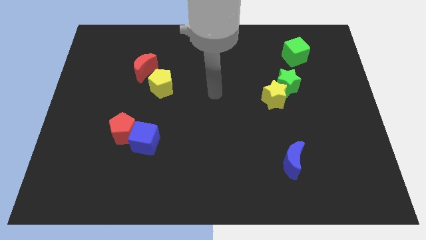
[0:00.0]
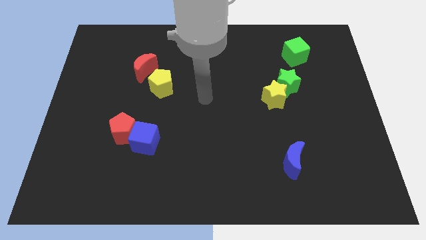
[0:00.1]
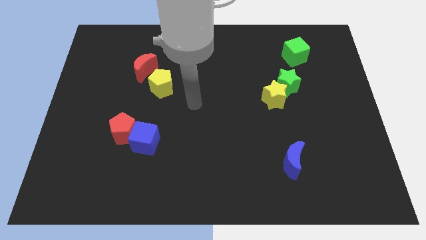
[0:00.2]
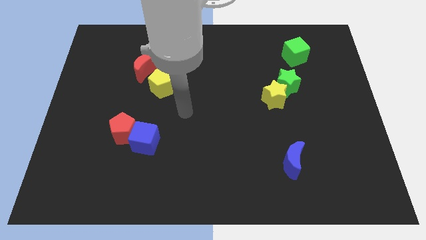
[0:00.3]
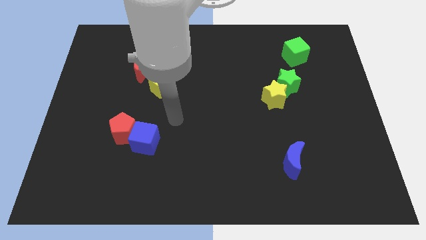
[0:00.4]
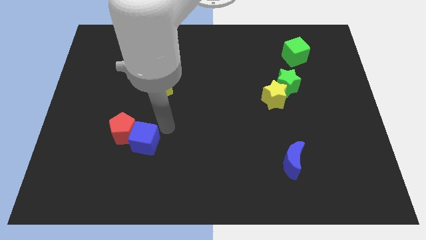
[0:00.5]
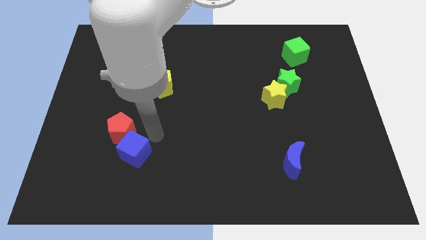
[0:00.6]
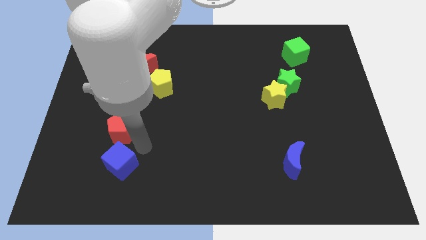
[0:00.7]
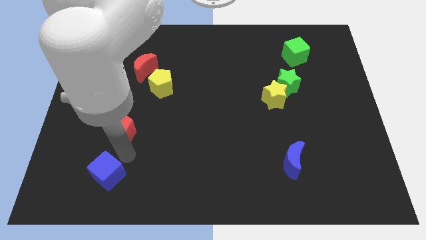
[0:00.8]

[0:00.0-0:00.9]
pull the red pentagon apart from the blue cube

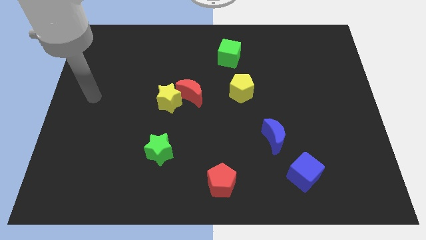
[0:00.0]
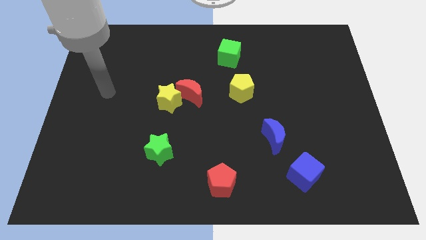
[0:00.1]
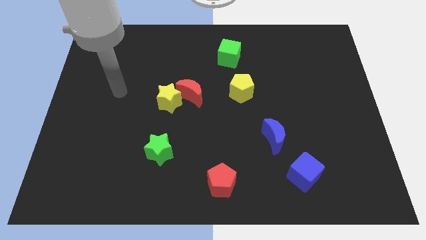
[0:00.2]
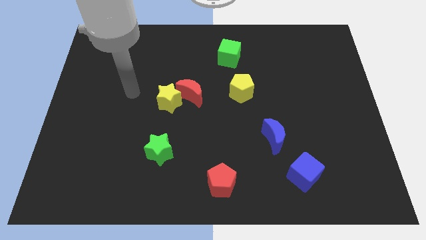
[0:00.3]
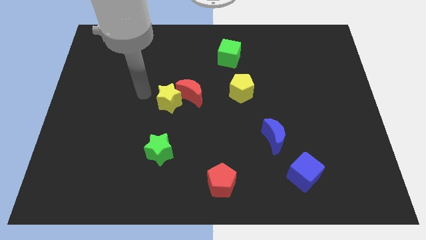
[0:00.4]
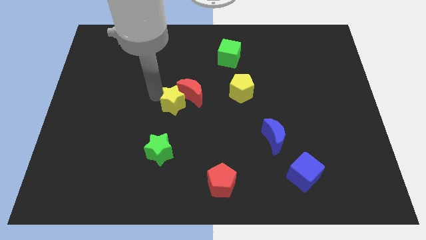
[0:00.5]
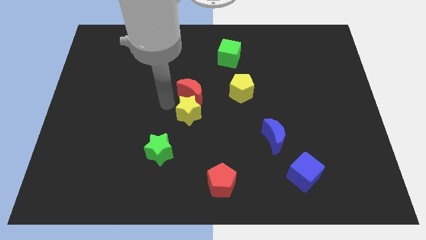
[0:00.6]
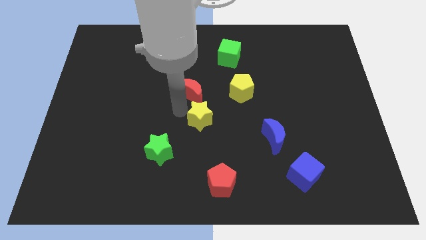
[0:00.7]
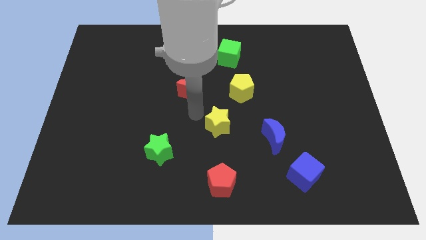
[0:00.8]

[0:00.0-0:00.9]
separate the red moon from the yellow star

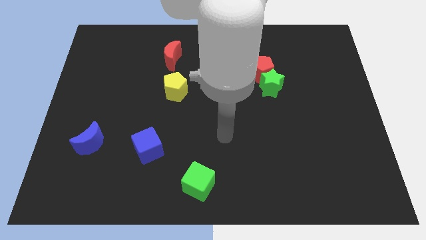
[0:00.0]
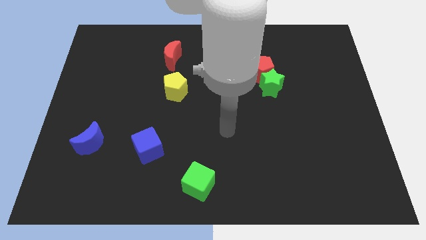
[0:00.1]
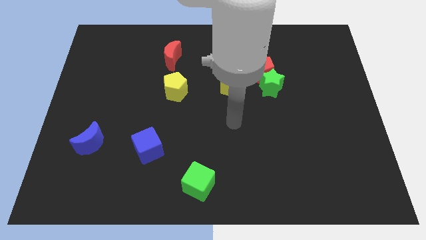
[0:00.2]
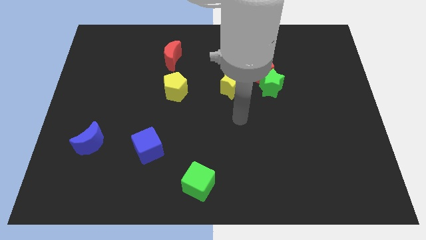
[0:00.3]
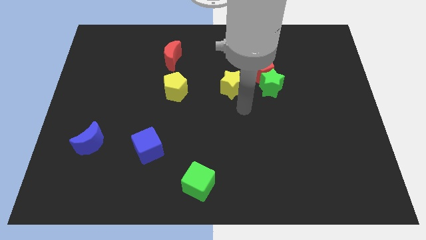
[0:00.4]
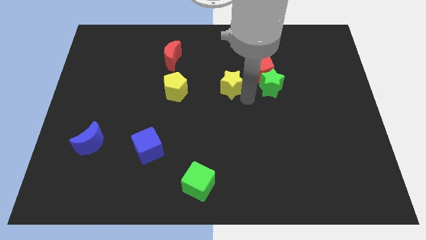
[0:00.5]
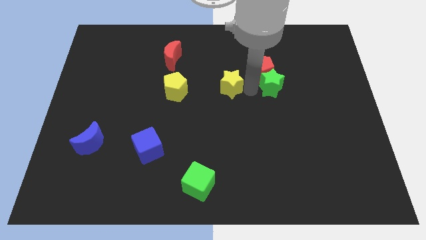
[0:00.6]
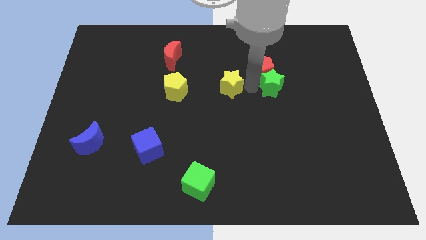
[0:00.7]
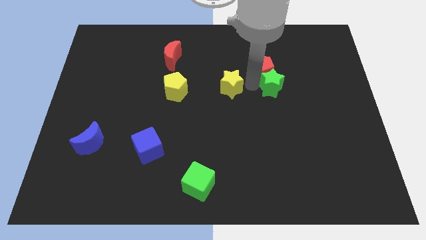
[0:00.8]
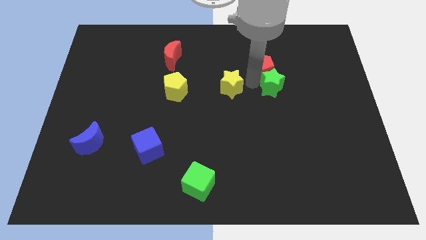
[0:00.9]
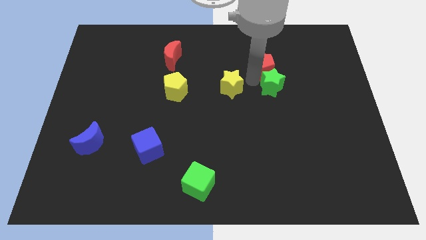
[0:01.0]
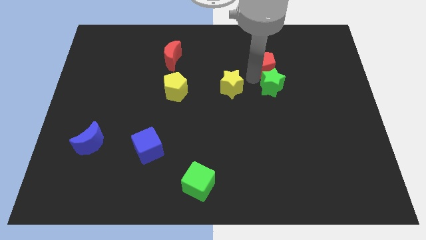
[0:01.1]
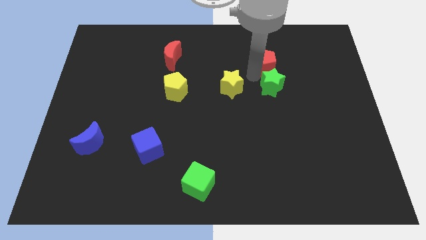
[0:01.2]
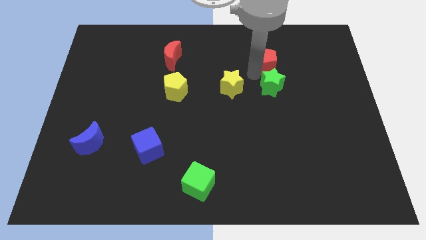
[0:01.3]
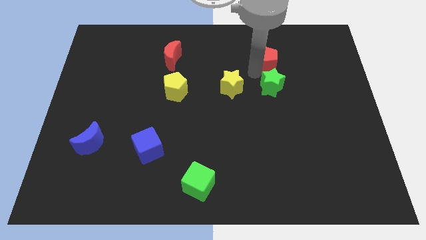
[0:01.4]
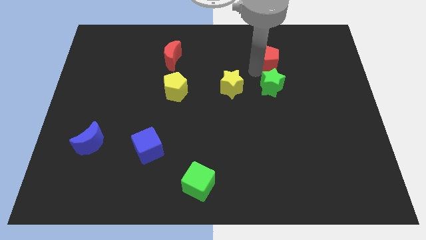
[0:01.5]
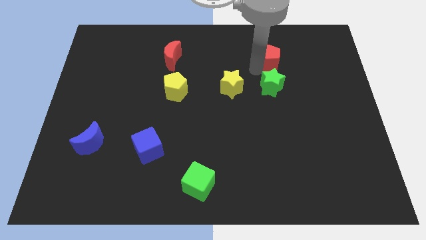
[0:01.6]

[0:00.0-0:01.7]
pull the red pentagon apart from the green star and yellow star

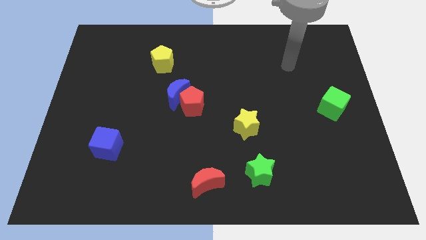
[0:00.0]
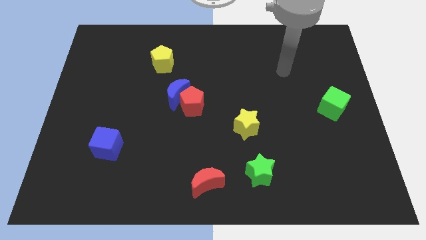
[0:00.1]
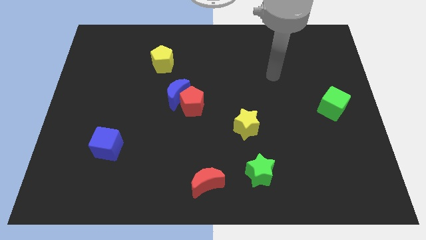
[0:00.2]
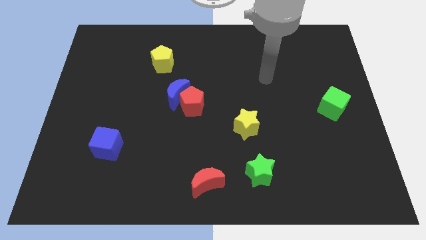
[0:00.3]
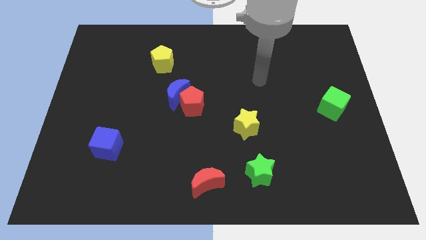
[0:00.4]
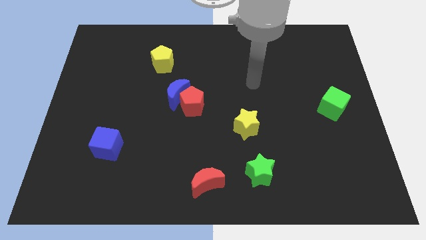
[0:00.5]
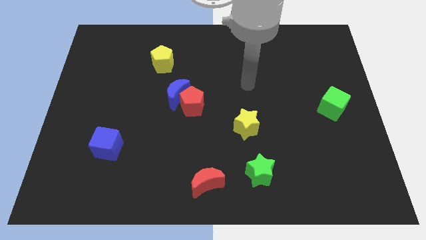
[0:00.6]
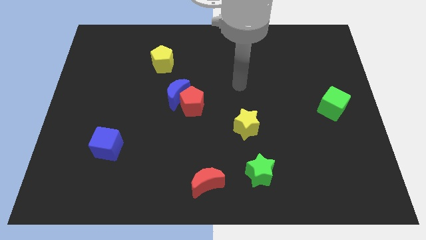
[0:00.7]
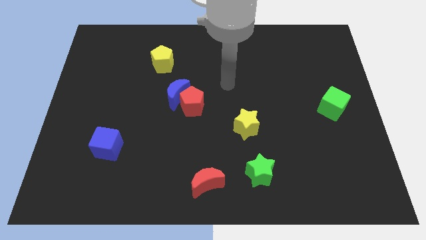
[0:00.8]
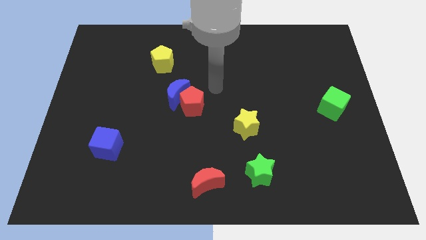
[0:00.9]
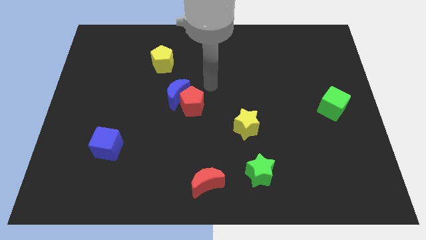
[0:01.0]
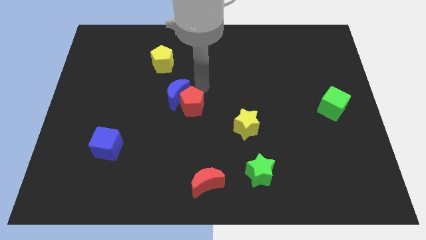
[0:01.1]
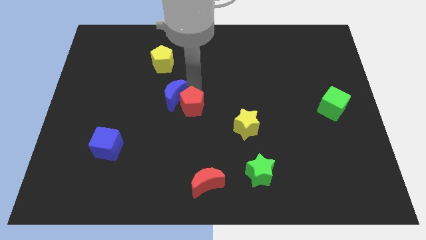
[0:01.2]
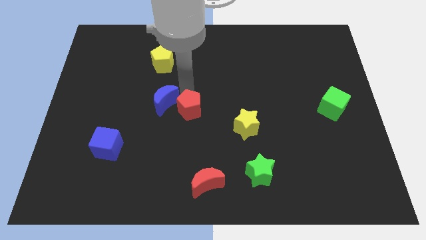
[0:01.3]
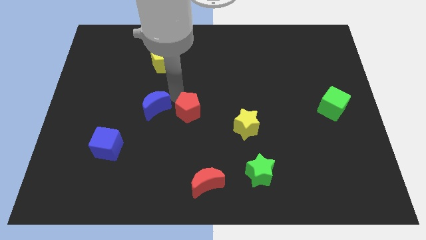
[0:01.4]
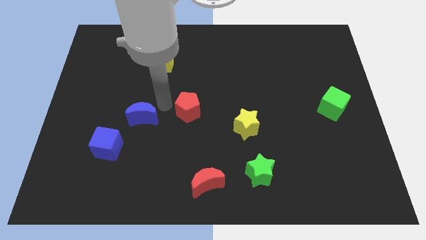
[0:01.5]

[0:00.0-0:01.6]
move the red pentagon away from the blue moon

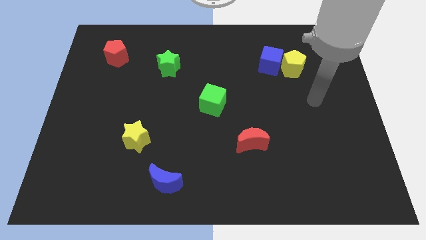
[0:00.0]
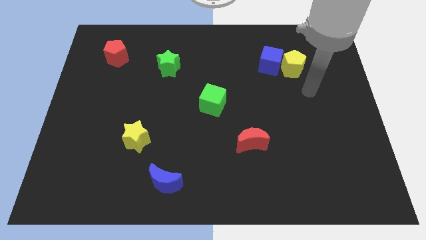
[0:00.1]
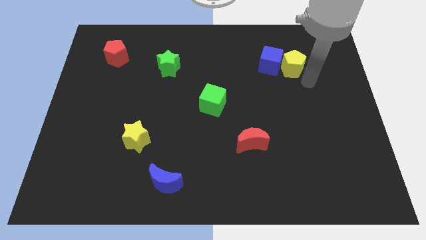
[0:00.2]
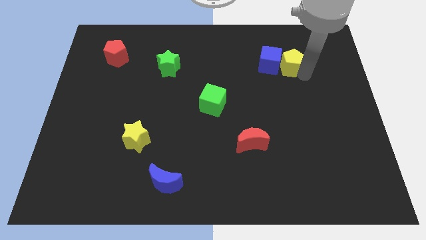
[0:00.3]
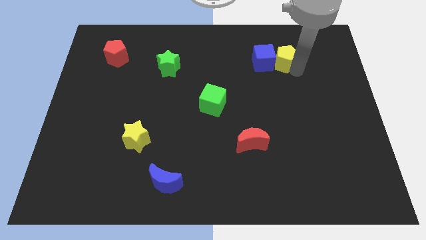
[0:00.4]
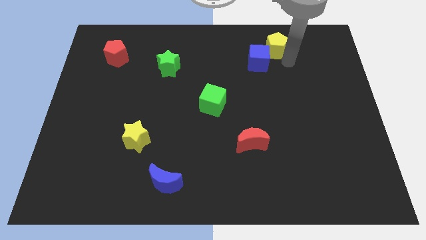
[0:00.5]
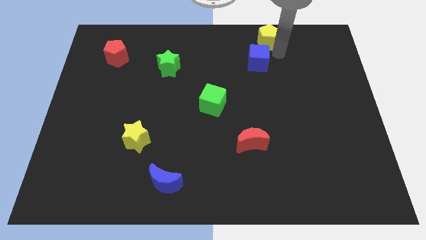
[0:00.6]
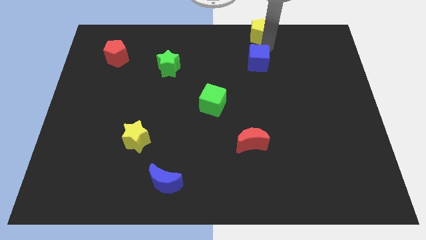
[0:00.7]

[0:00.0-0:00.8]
pull the blue cube apart from the yellow pentagon

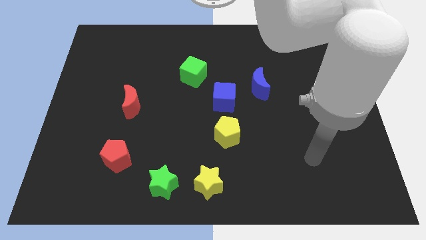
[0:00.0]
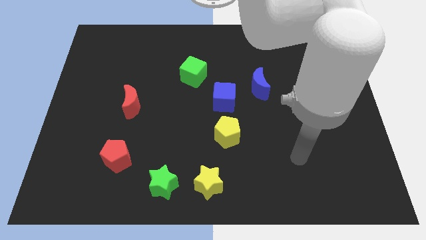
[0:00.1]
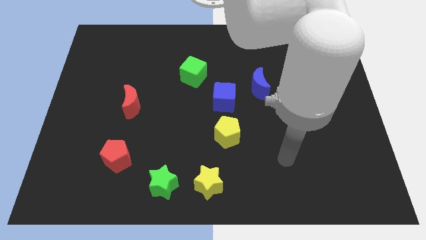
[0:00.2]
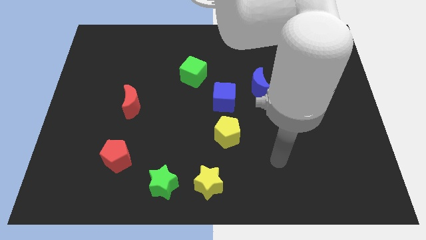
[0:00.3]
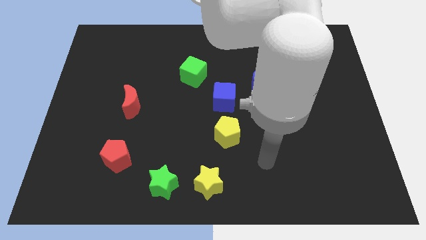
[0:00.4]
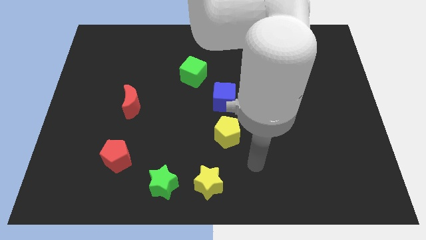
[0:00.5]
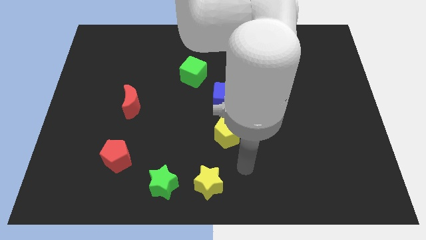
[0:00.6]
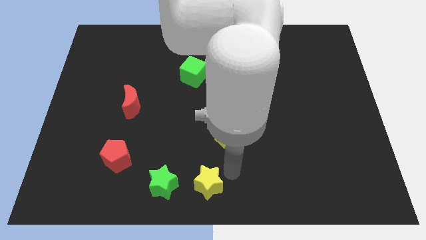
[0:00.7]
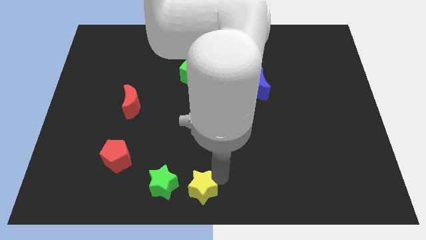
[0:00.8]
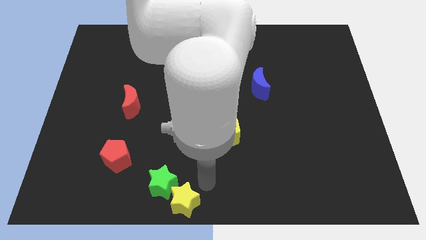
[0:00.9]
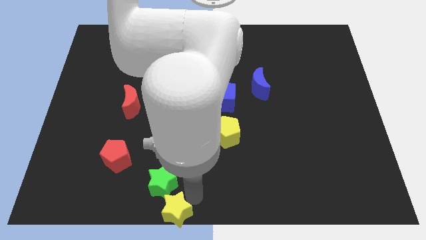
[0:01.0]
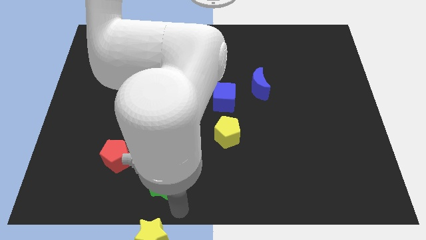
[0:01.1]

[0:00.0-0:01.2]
pull the green star apart from the yellow star

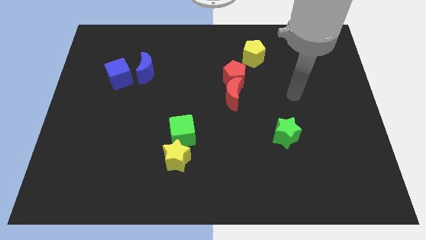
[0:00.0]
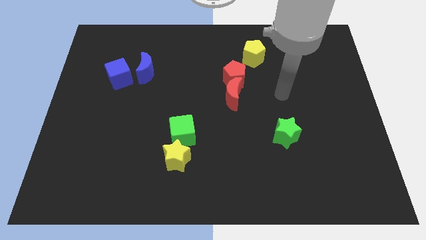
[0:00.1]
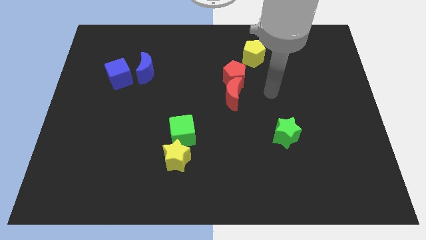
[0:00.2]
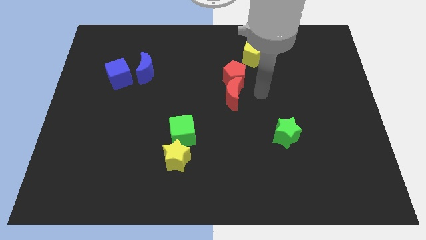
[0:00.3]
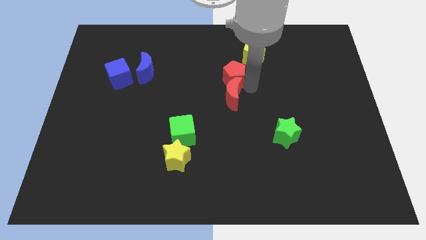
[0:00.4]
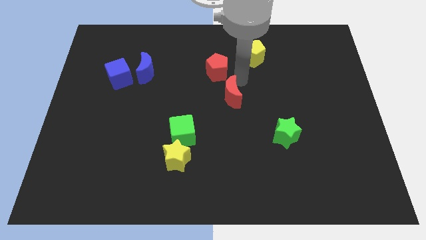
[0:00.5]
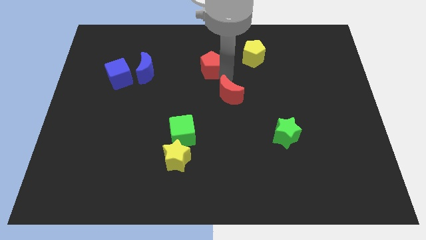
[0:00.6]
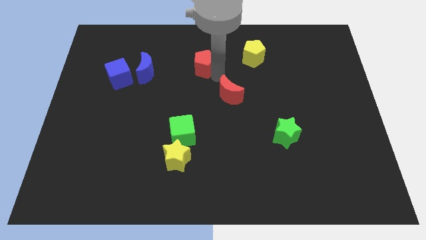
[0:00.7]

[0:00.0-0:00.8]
move the red moon away from the red pentagon

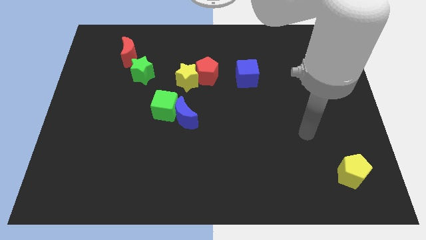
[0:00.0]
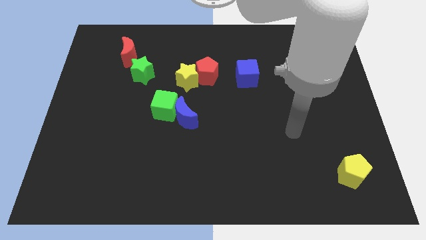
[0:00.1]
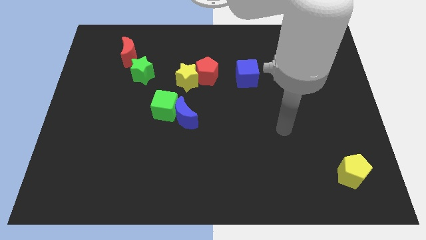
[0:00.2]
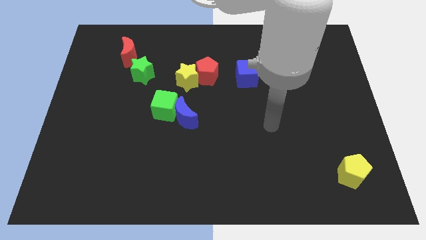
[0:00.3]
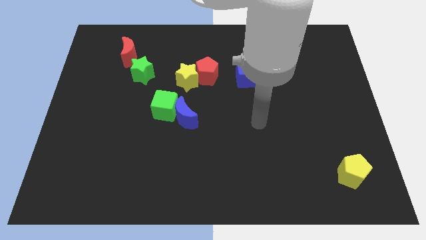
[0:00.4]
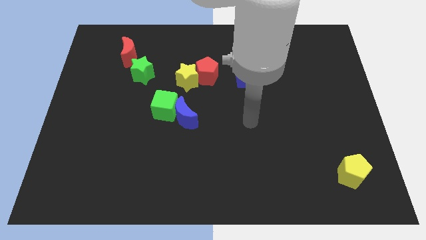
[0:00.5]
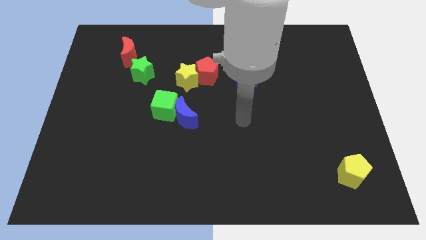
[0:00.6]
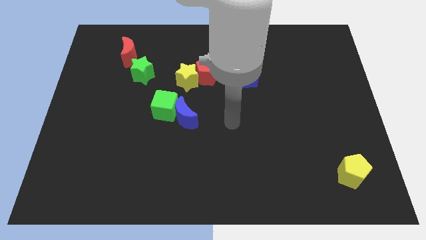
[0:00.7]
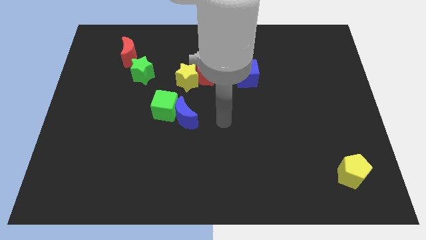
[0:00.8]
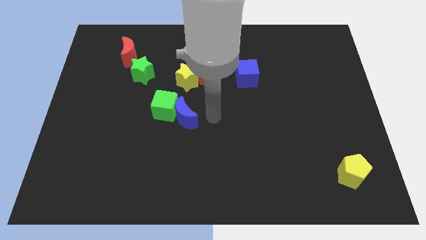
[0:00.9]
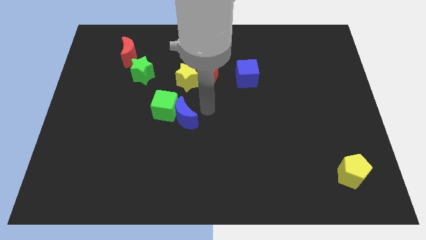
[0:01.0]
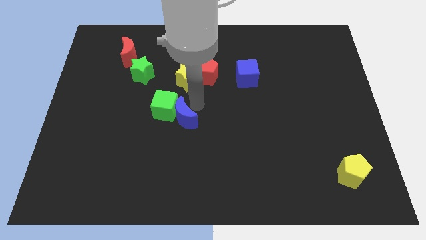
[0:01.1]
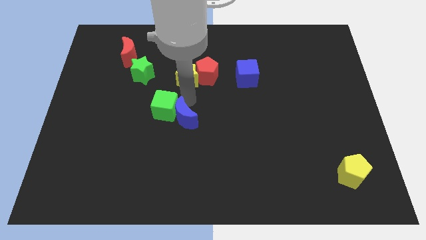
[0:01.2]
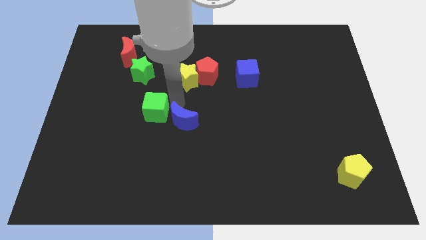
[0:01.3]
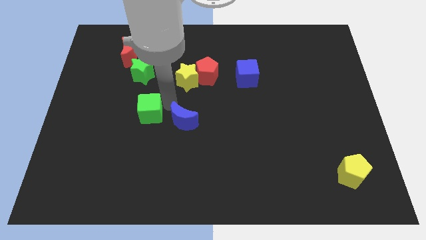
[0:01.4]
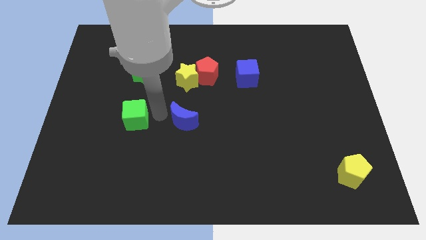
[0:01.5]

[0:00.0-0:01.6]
separate the blue moon from the green cube

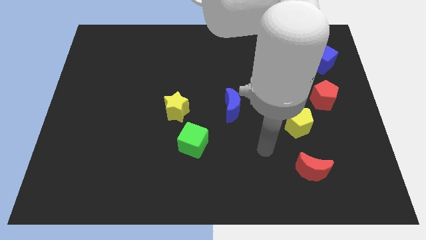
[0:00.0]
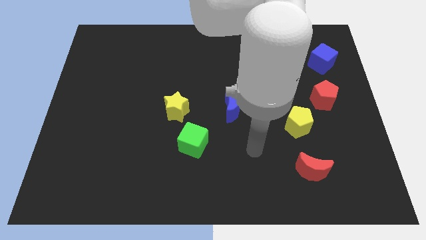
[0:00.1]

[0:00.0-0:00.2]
pull the green cube apart from the yellow star
